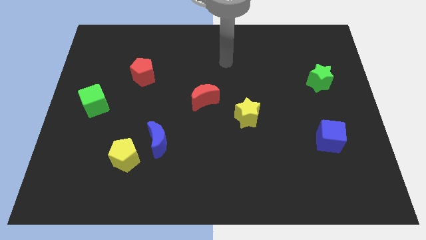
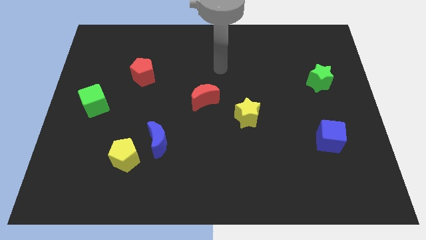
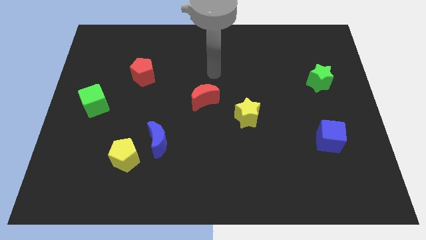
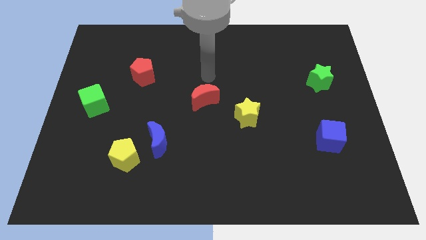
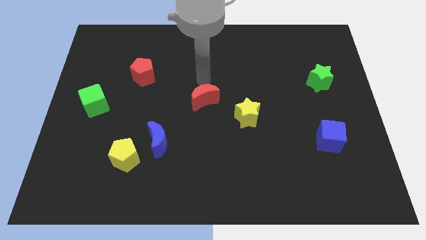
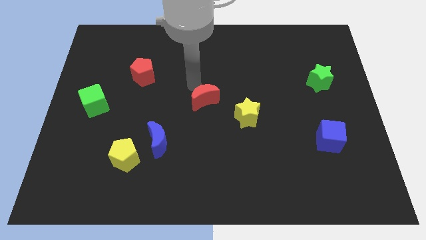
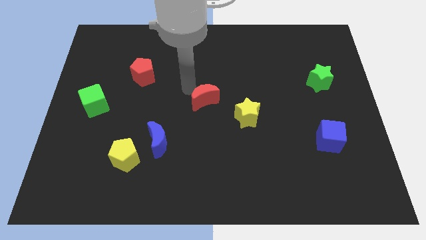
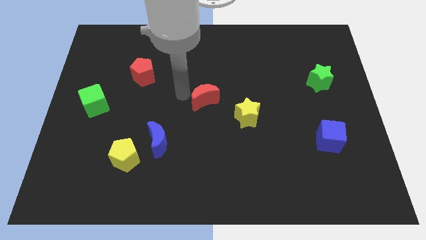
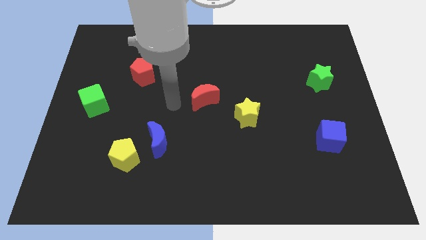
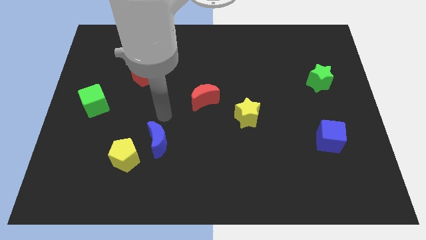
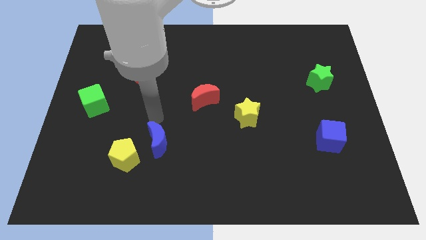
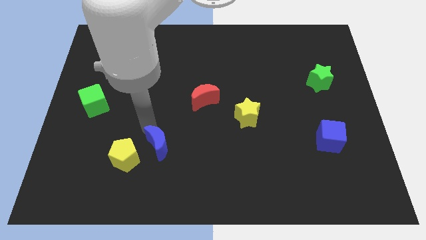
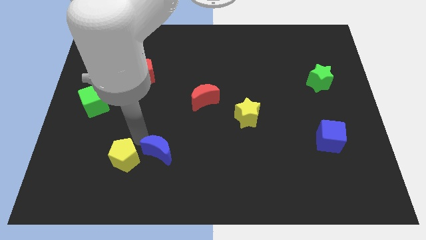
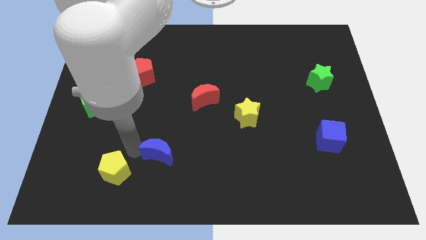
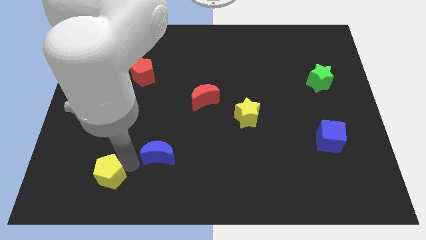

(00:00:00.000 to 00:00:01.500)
pull the blue moon apart from the yellow pentagon

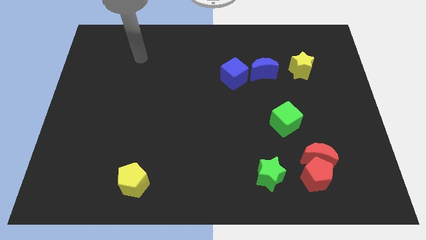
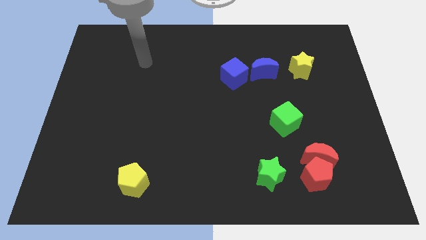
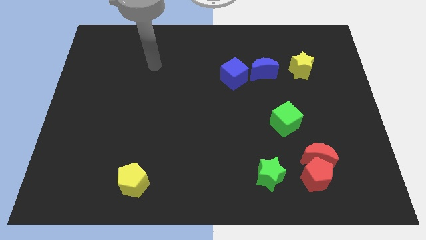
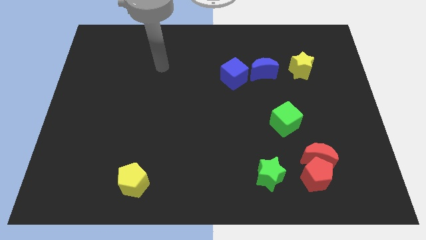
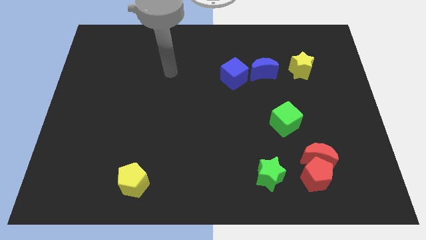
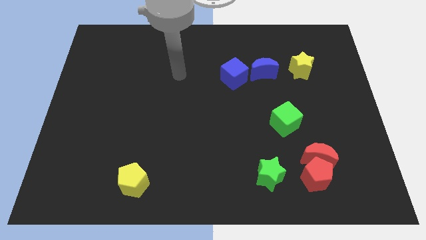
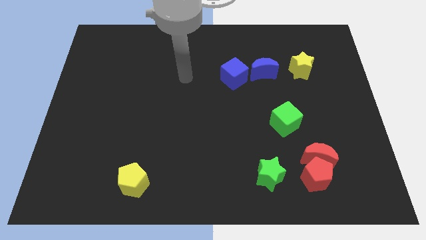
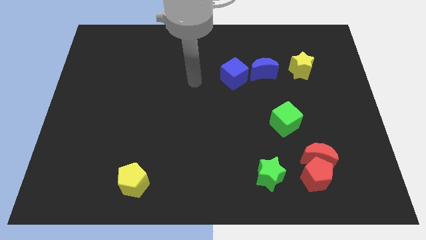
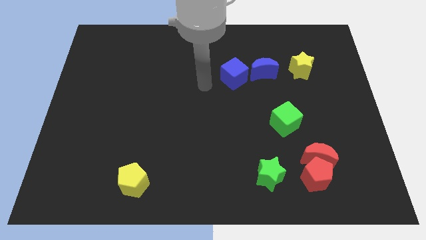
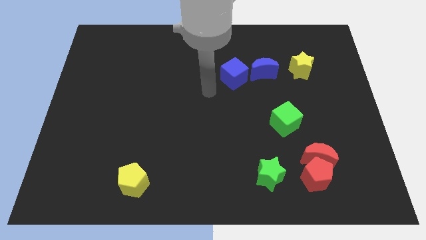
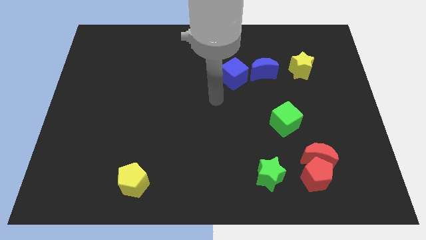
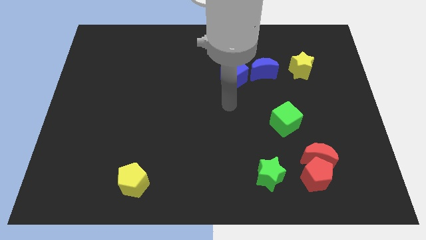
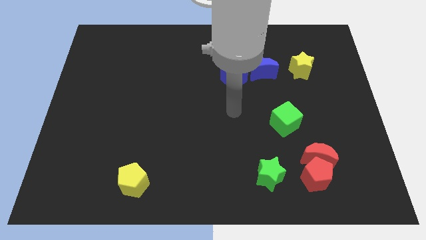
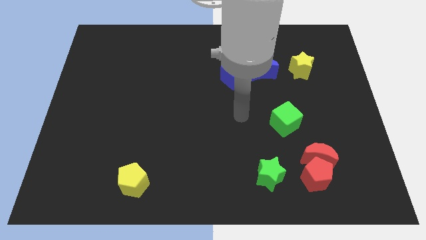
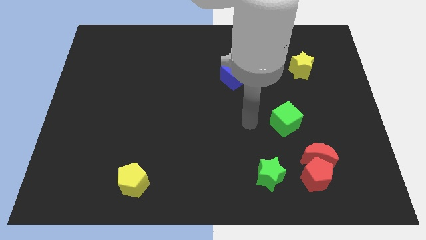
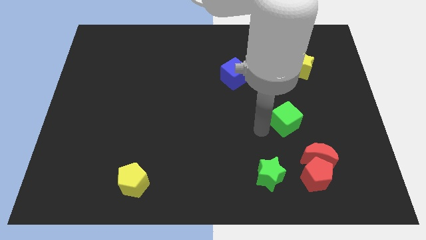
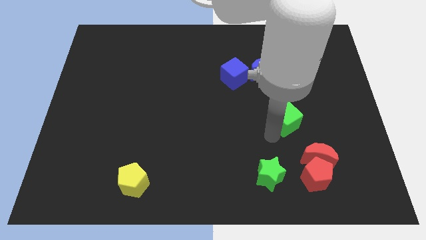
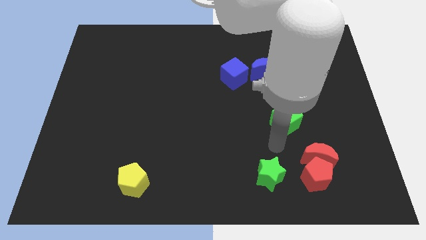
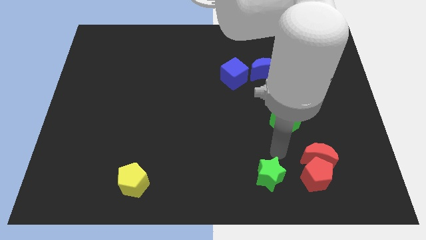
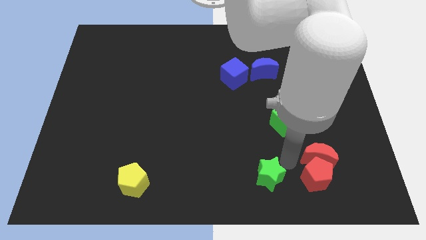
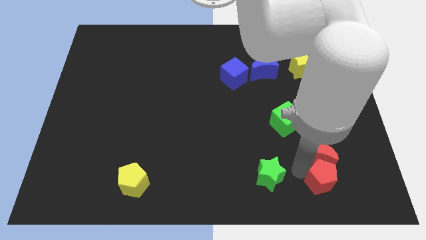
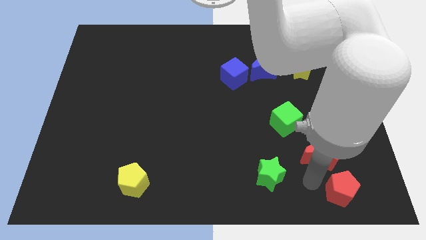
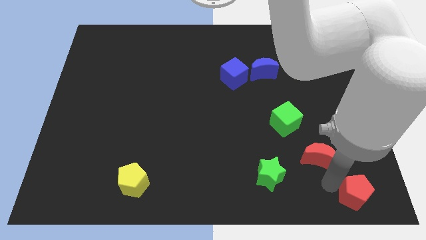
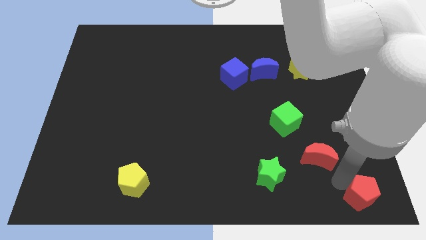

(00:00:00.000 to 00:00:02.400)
separate the red moon from the red pentagon

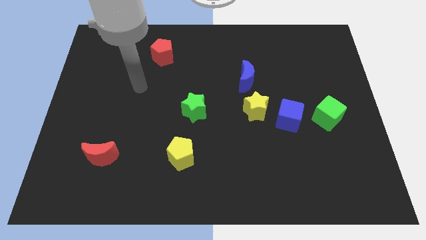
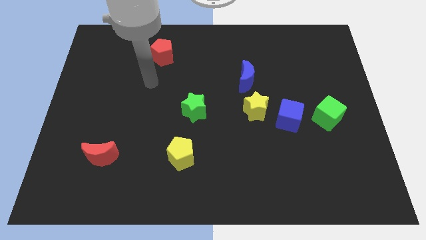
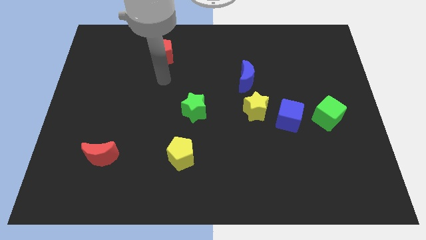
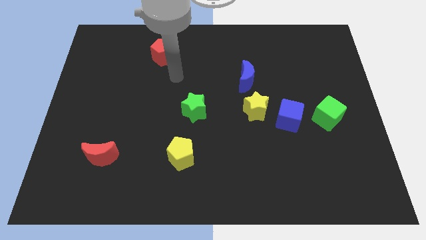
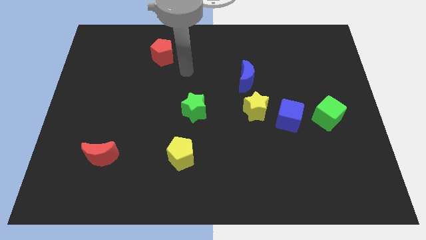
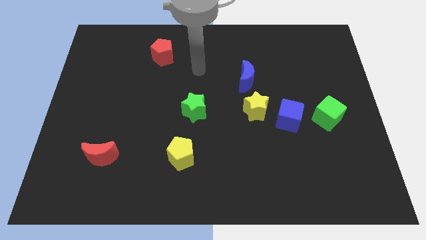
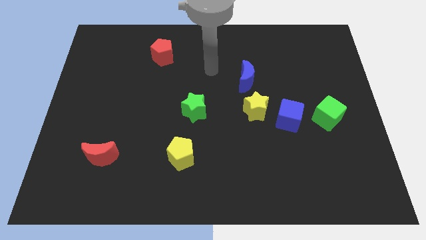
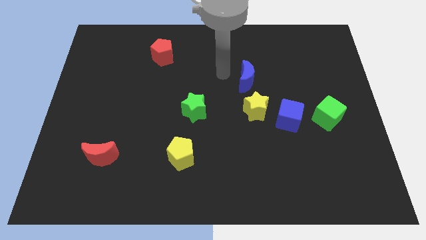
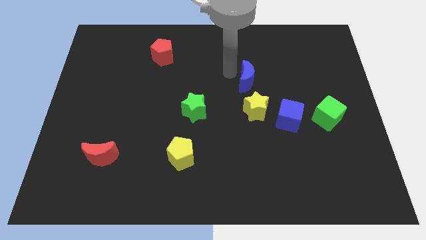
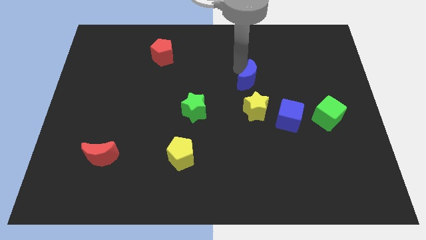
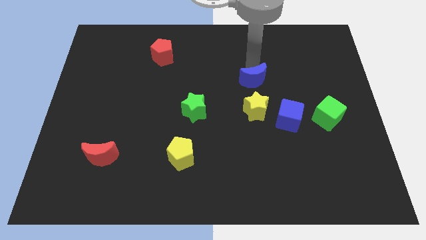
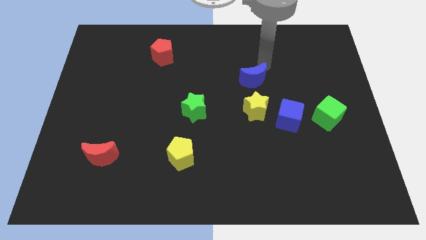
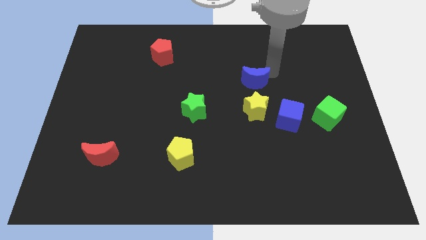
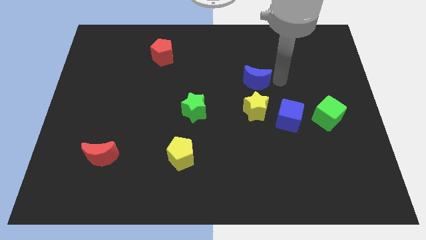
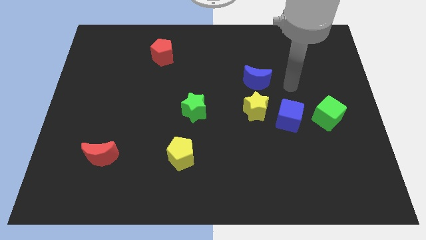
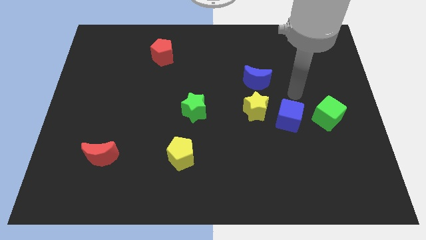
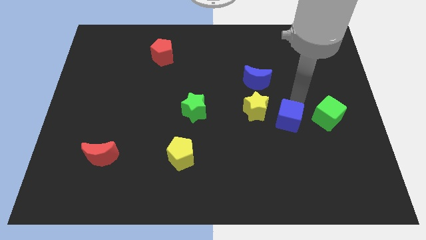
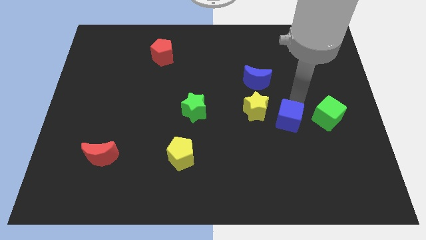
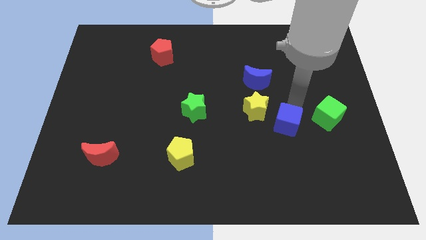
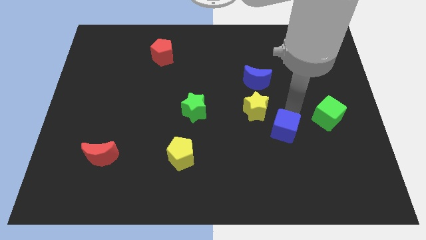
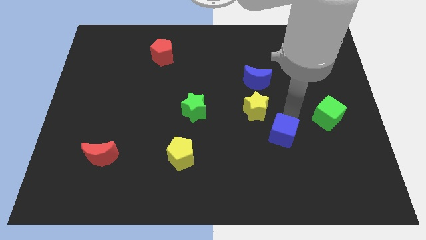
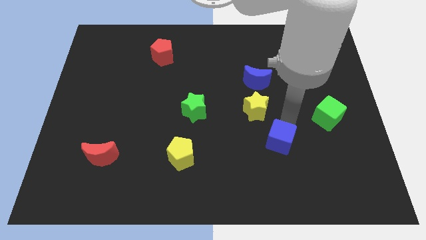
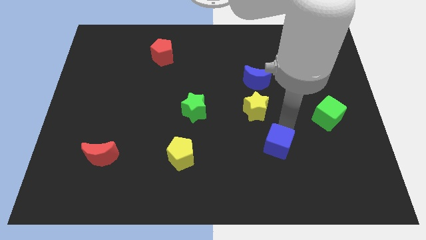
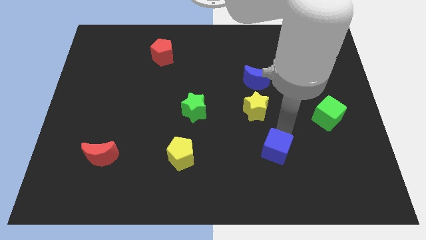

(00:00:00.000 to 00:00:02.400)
separate the blue cube from the yellow star and green cube

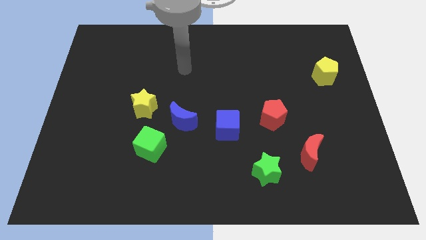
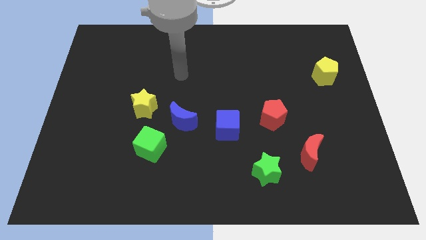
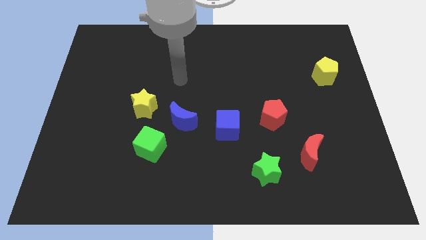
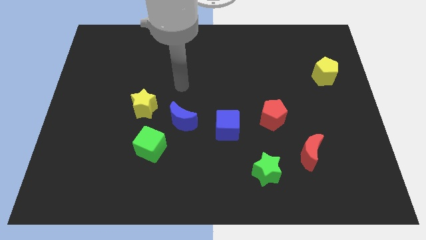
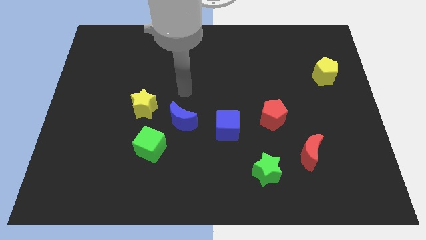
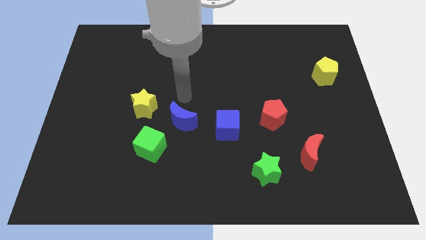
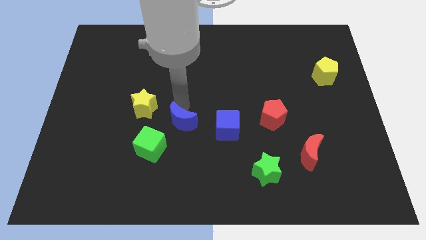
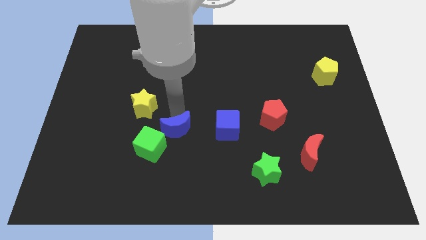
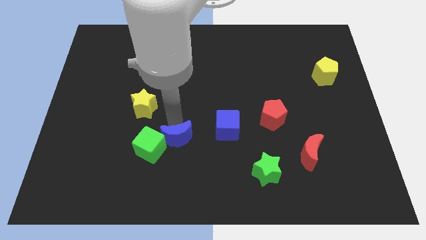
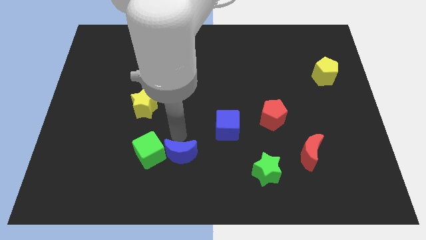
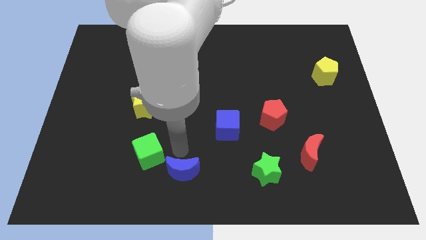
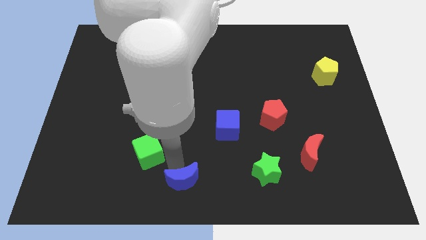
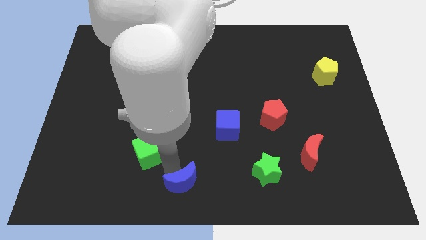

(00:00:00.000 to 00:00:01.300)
move the green cube away from the blue moon

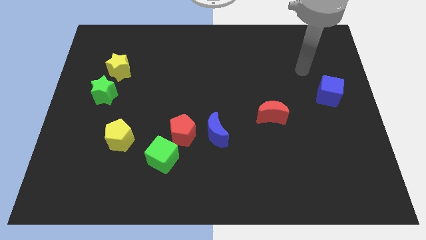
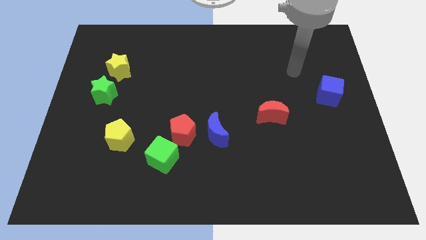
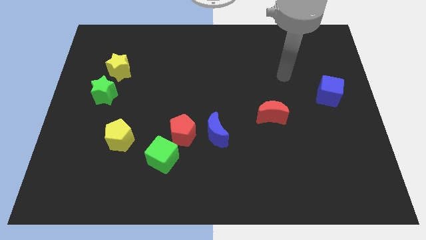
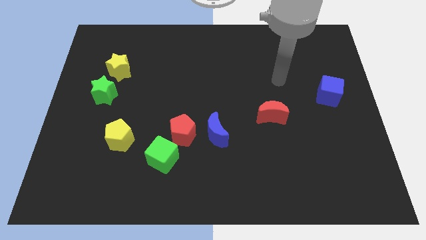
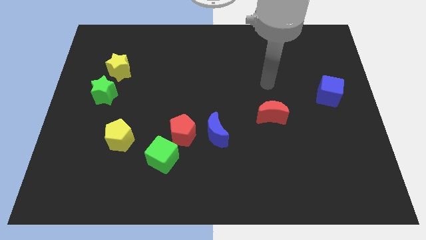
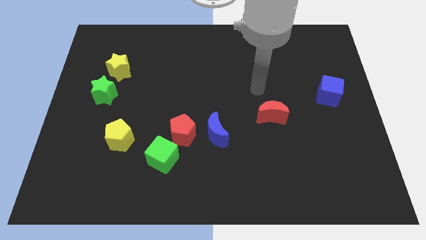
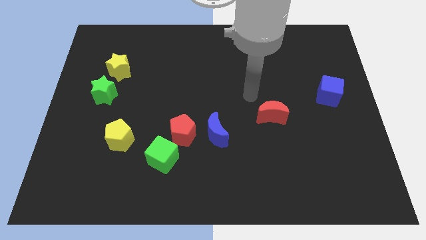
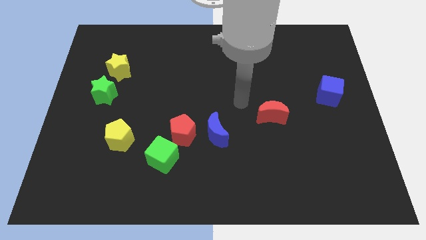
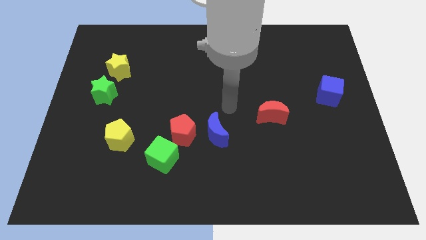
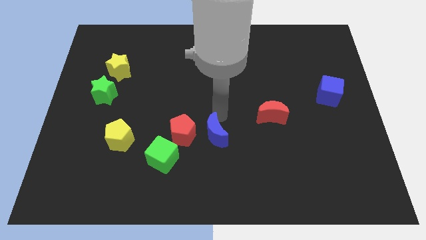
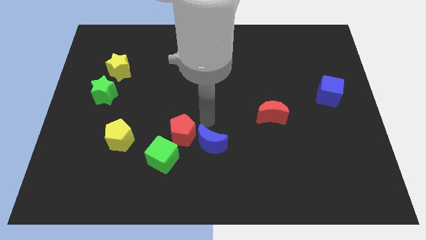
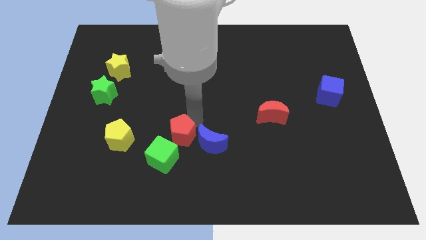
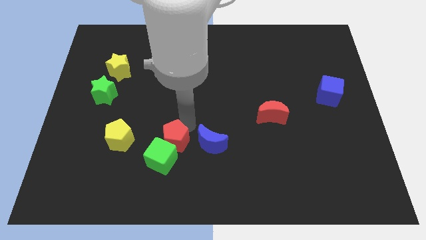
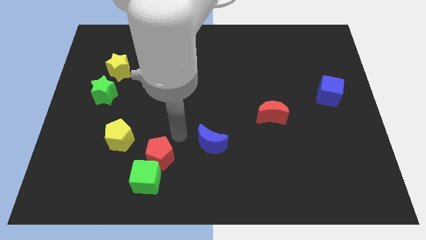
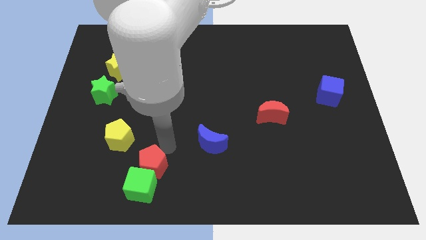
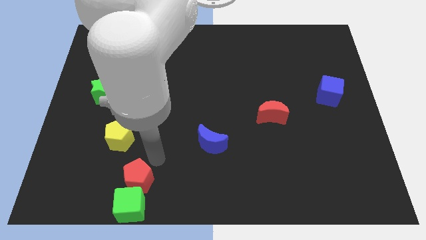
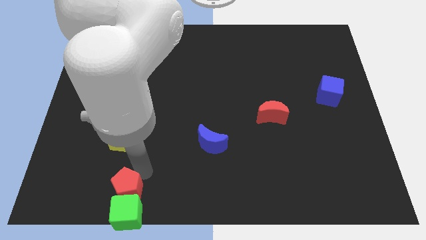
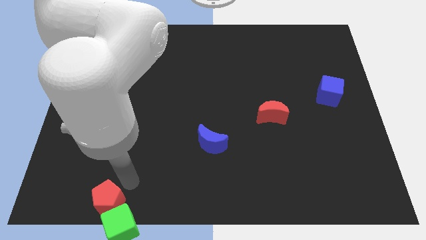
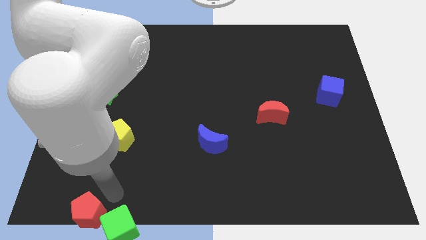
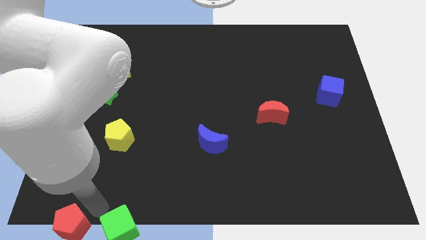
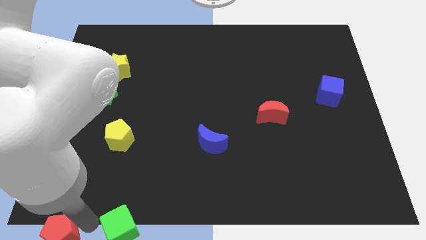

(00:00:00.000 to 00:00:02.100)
pull the green cube apart from the red pentagon
